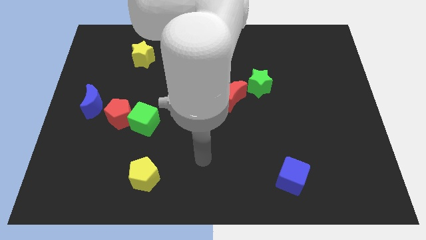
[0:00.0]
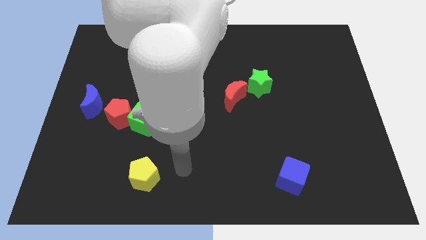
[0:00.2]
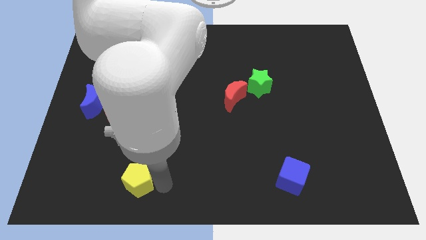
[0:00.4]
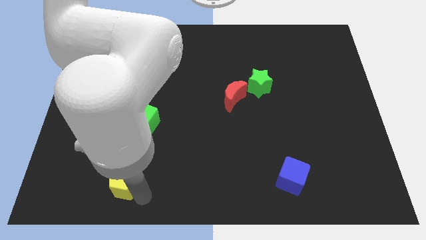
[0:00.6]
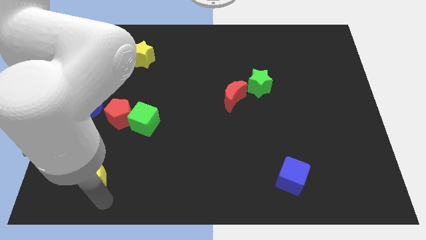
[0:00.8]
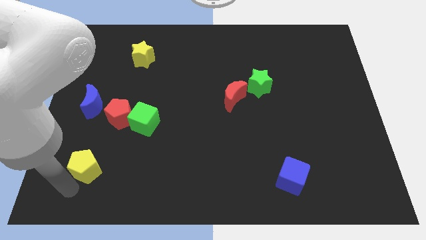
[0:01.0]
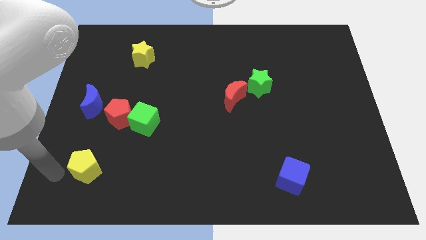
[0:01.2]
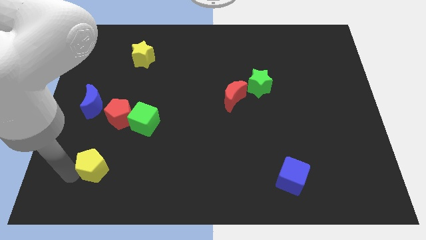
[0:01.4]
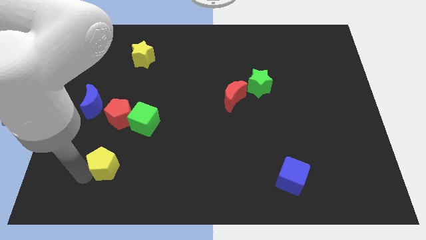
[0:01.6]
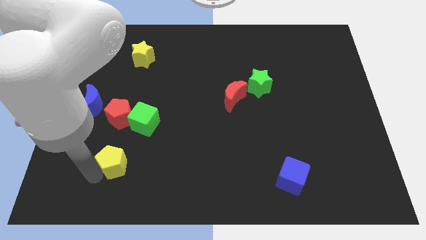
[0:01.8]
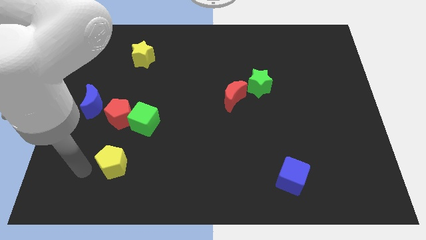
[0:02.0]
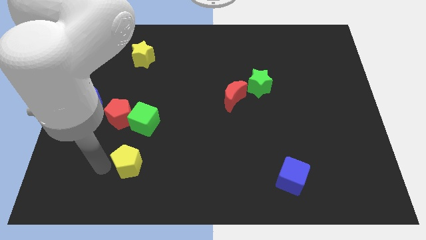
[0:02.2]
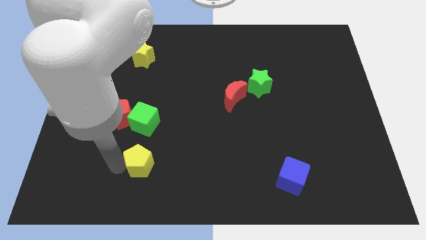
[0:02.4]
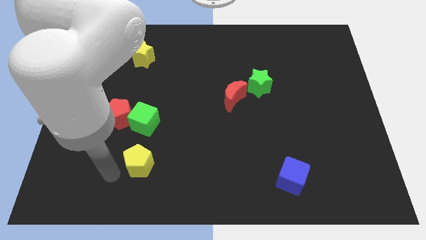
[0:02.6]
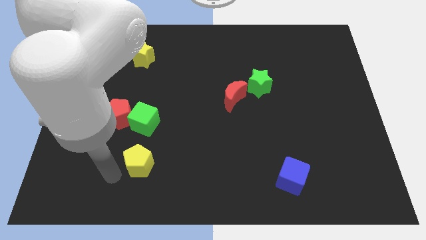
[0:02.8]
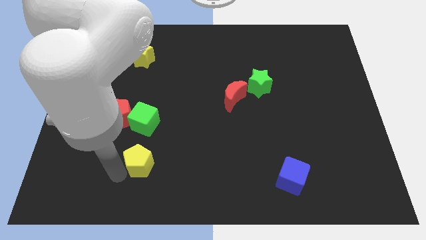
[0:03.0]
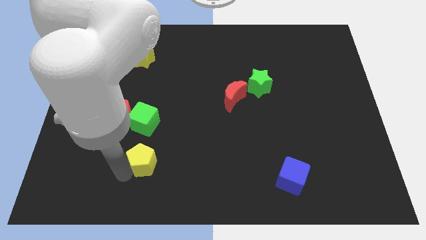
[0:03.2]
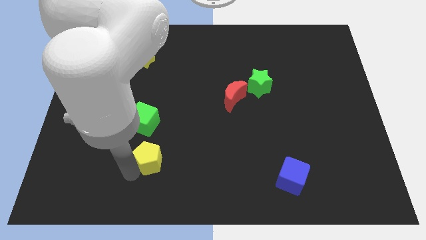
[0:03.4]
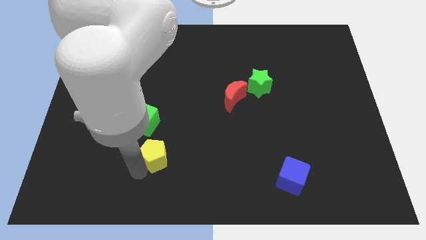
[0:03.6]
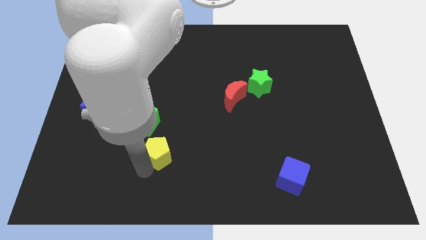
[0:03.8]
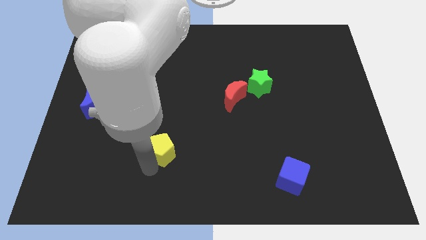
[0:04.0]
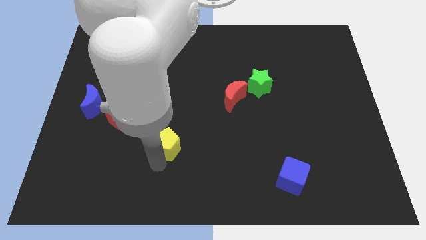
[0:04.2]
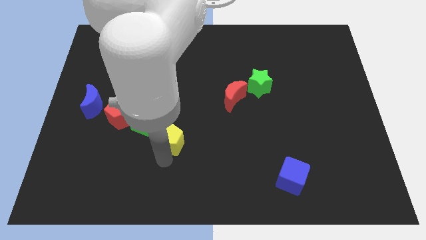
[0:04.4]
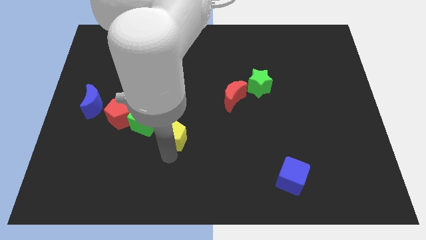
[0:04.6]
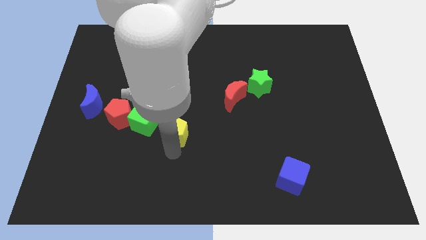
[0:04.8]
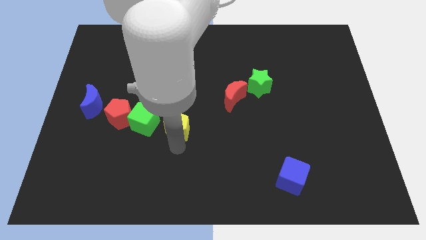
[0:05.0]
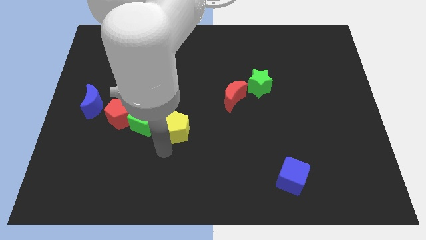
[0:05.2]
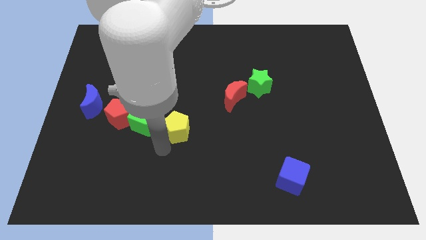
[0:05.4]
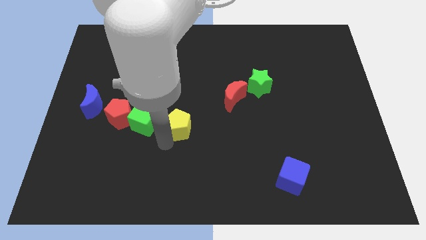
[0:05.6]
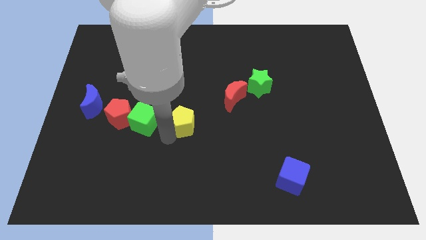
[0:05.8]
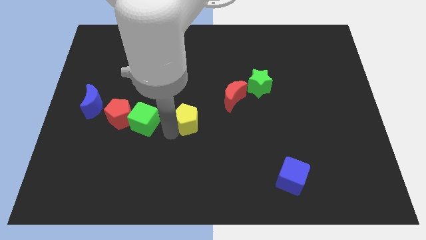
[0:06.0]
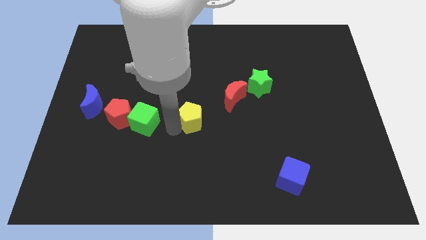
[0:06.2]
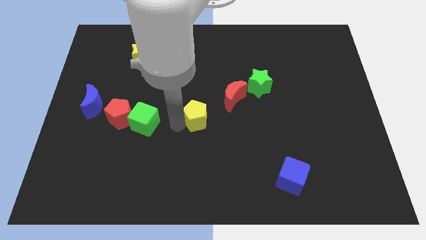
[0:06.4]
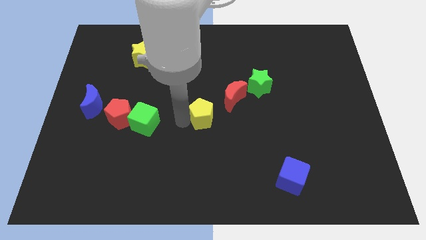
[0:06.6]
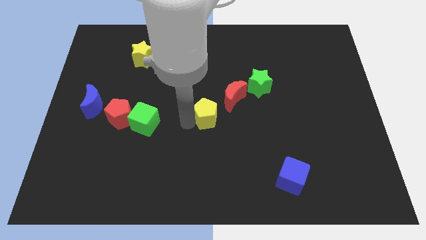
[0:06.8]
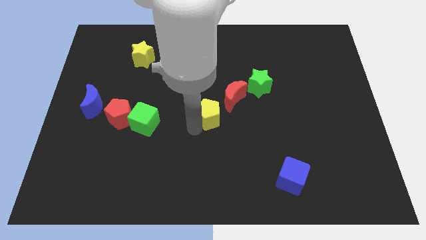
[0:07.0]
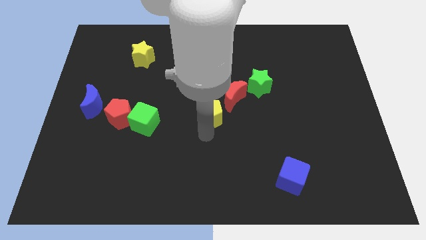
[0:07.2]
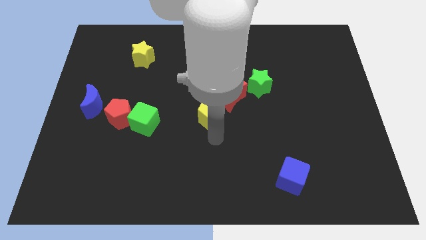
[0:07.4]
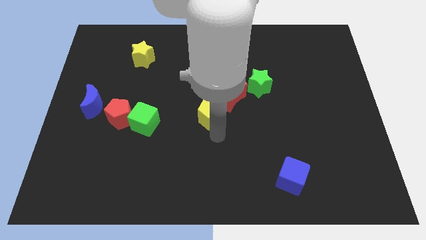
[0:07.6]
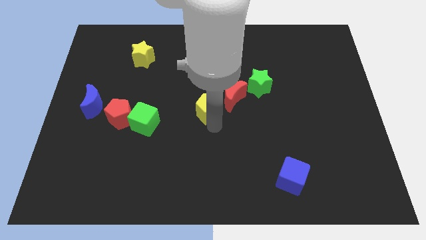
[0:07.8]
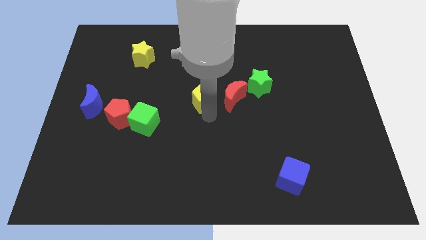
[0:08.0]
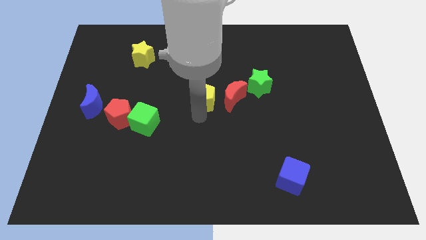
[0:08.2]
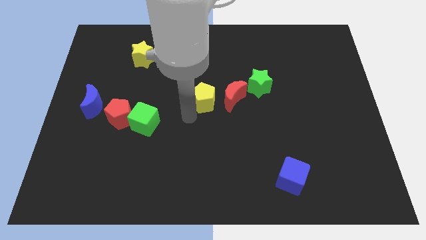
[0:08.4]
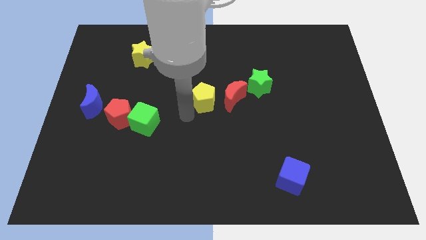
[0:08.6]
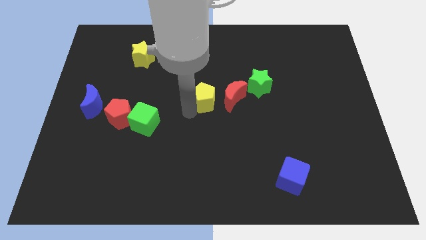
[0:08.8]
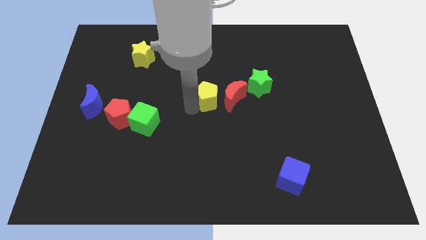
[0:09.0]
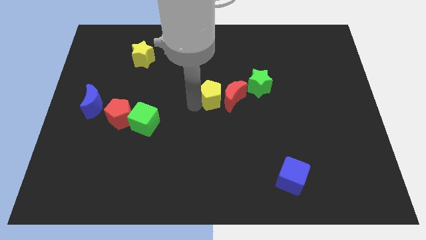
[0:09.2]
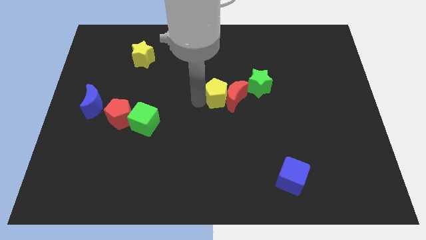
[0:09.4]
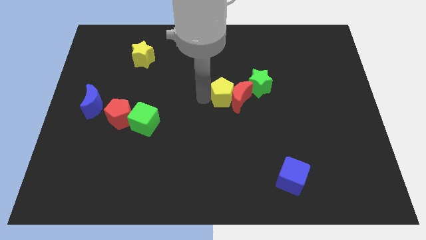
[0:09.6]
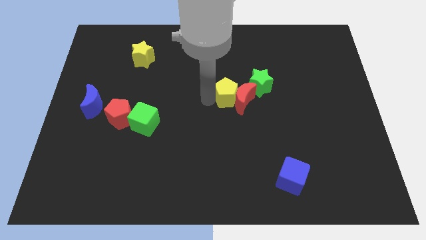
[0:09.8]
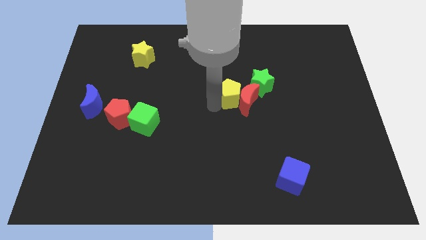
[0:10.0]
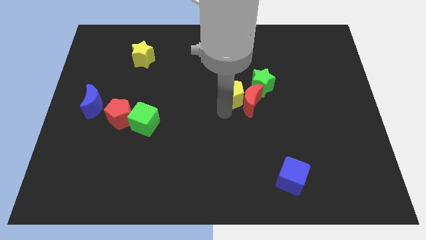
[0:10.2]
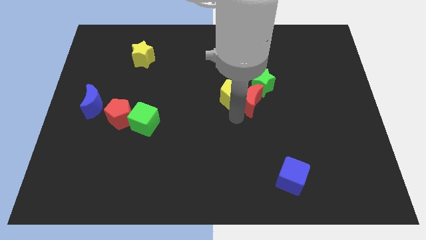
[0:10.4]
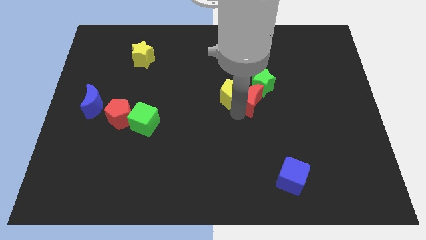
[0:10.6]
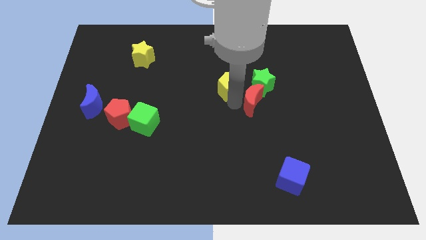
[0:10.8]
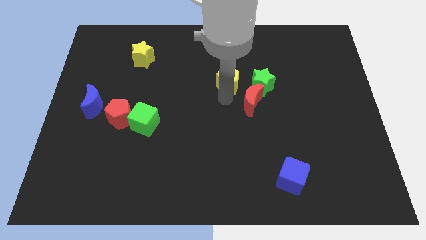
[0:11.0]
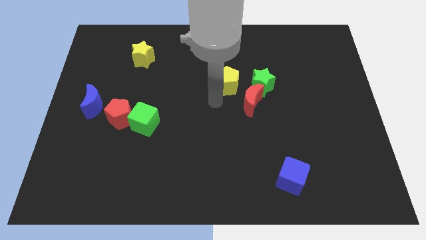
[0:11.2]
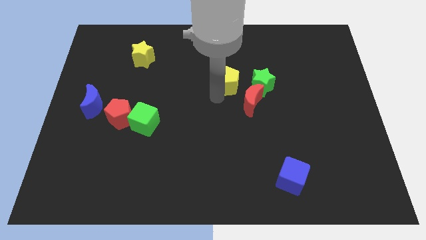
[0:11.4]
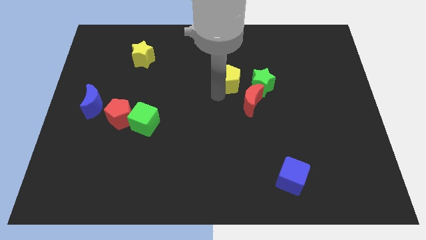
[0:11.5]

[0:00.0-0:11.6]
put the yellow pentagon to the top left side of the green star

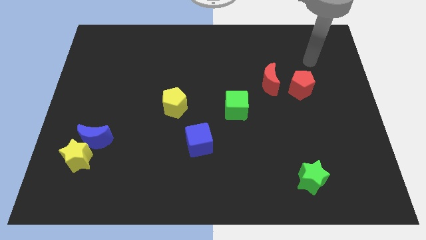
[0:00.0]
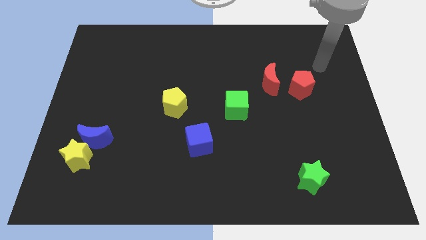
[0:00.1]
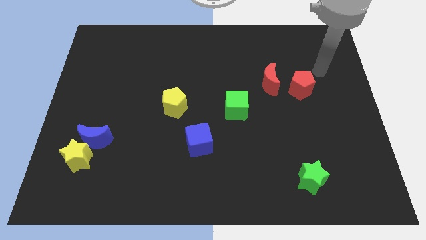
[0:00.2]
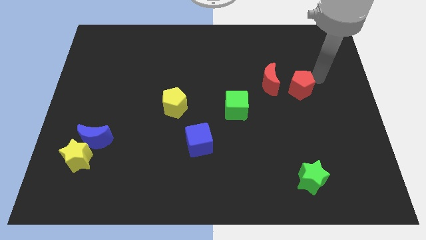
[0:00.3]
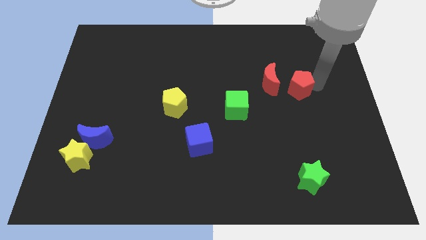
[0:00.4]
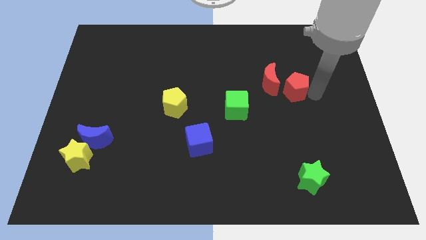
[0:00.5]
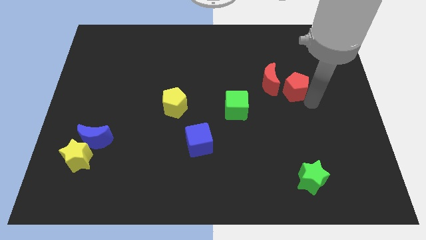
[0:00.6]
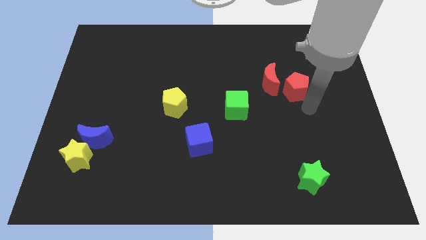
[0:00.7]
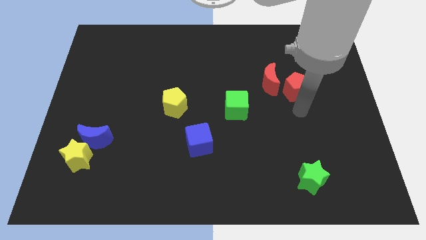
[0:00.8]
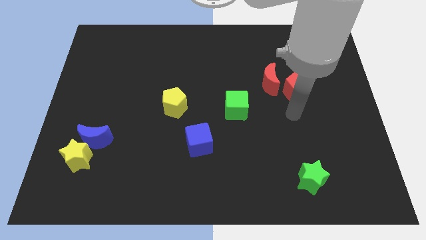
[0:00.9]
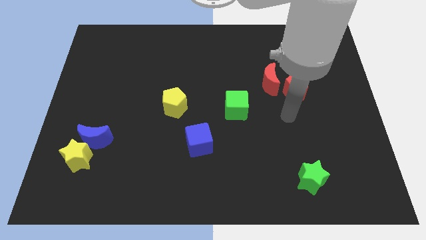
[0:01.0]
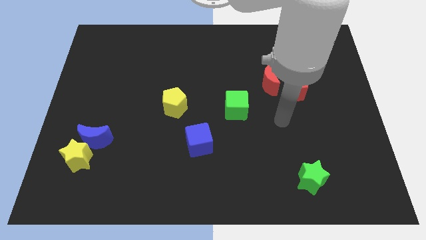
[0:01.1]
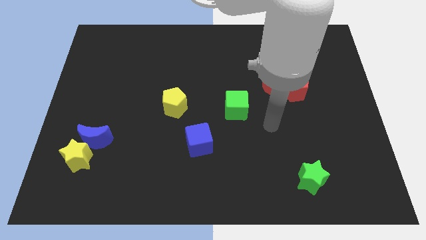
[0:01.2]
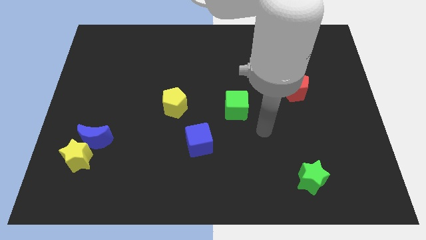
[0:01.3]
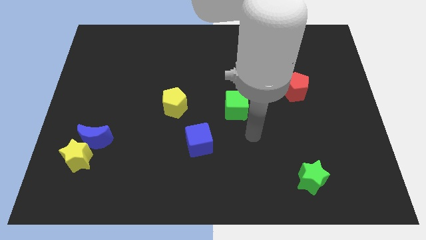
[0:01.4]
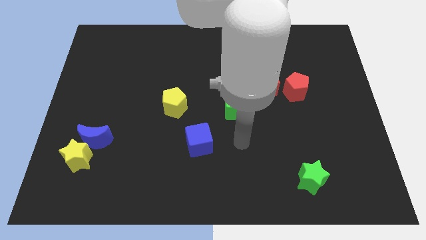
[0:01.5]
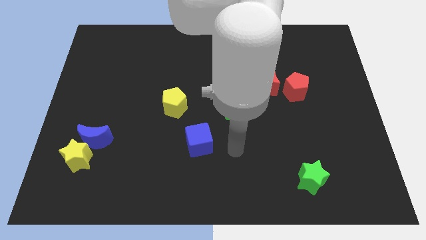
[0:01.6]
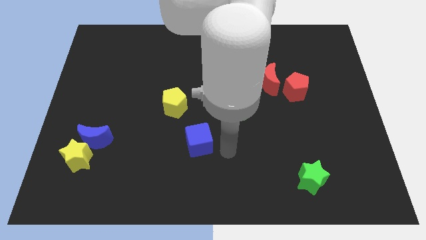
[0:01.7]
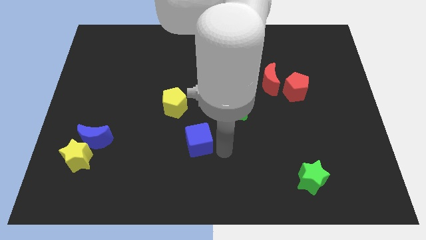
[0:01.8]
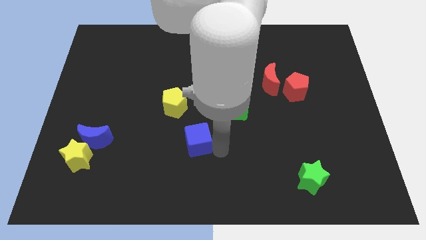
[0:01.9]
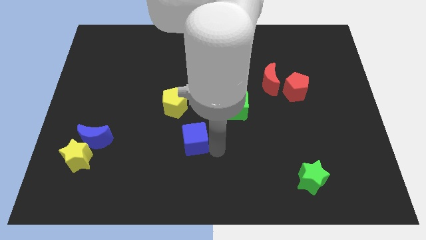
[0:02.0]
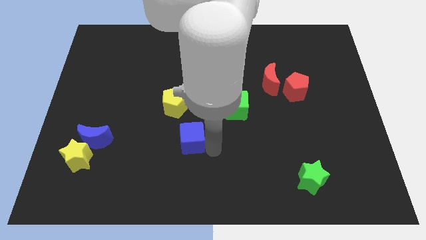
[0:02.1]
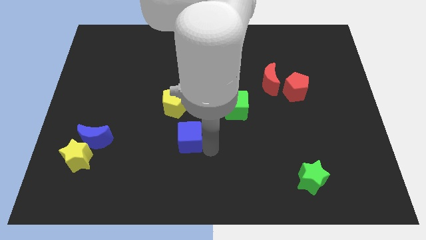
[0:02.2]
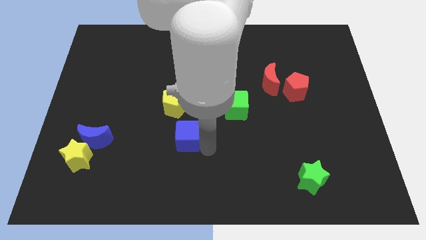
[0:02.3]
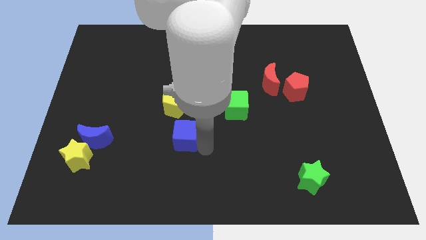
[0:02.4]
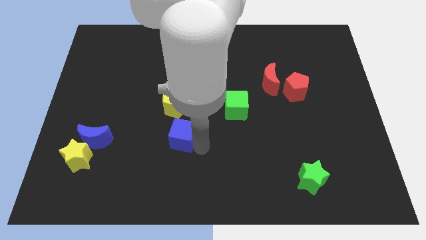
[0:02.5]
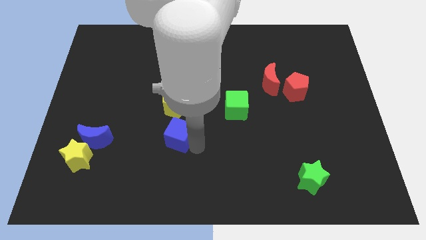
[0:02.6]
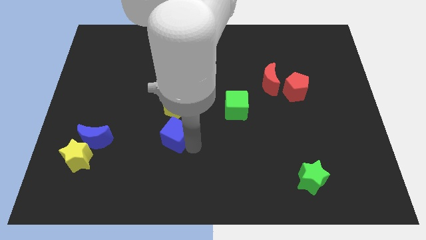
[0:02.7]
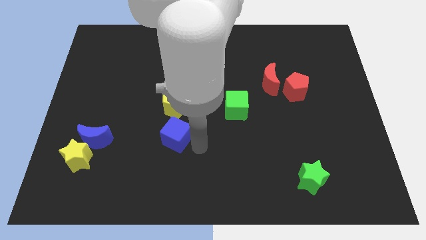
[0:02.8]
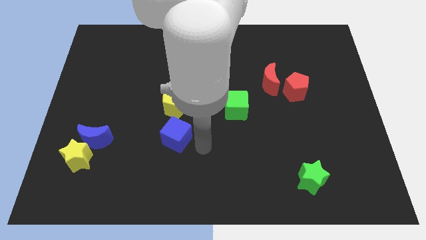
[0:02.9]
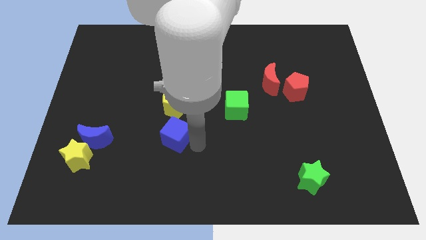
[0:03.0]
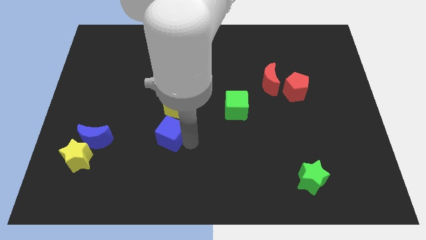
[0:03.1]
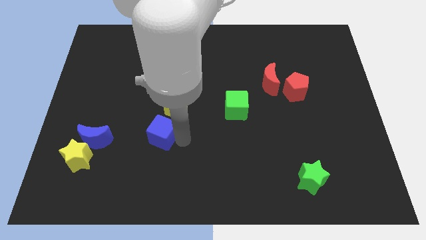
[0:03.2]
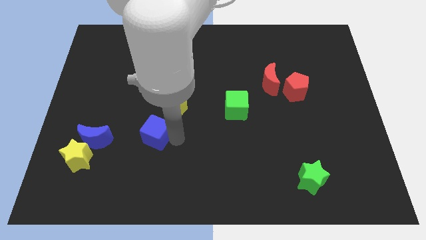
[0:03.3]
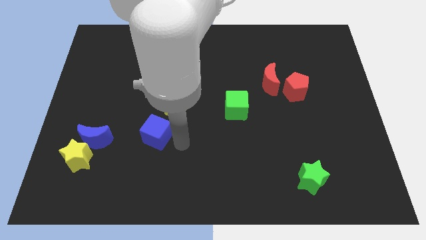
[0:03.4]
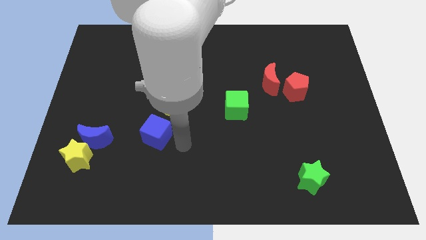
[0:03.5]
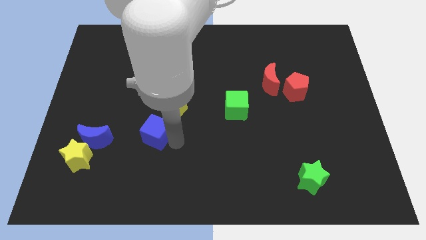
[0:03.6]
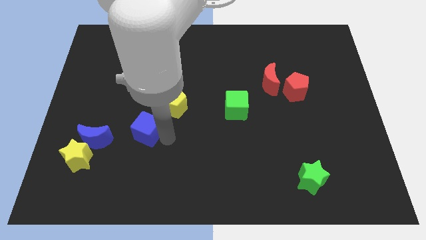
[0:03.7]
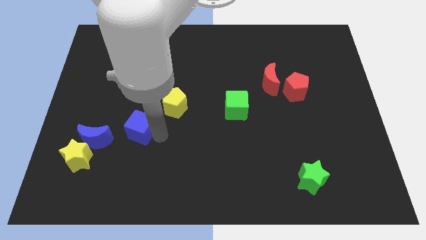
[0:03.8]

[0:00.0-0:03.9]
push the blue cube to the top right side of the blue moon
